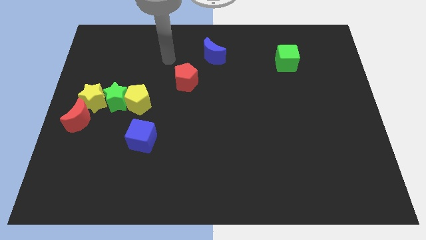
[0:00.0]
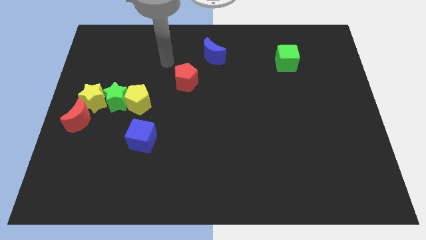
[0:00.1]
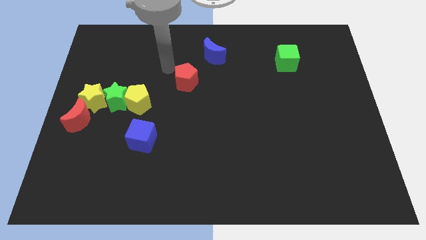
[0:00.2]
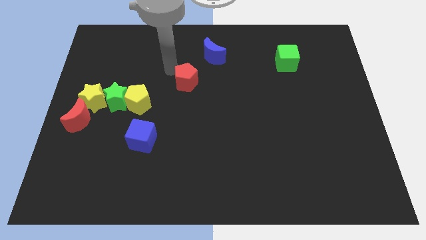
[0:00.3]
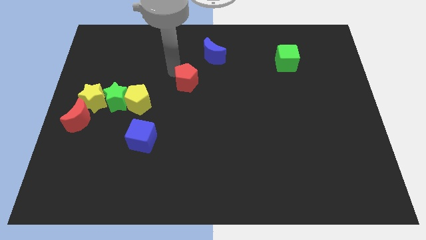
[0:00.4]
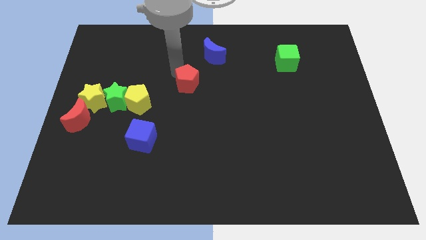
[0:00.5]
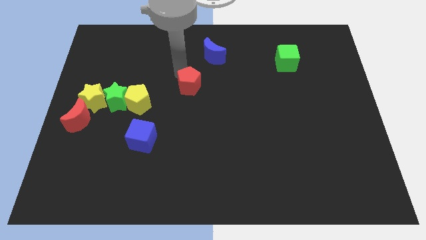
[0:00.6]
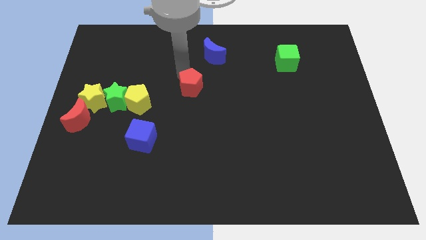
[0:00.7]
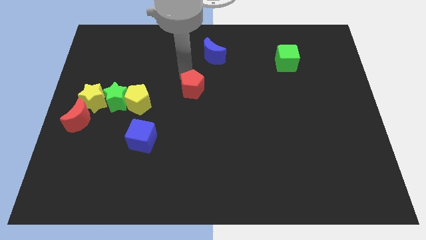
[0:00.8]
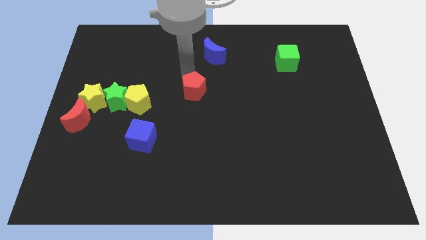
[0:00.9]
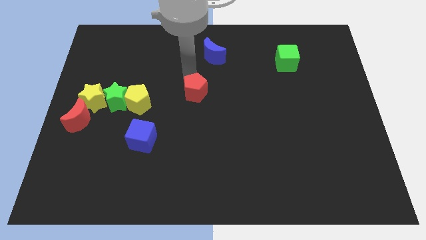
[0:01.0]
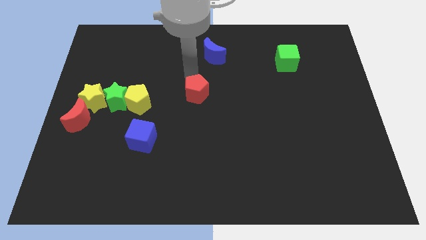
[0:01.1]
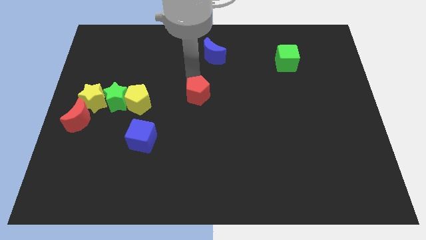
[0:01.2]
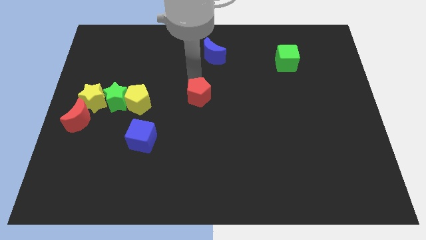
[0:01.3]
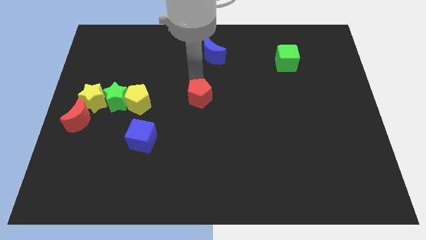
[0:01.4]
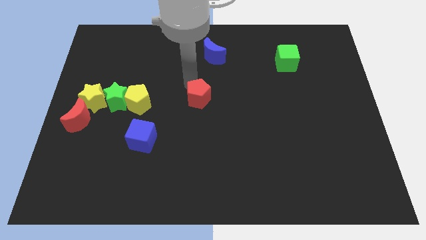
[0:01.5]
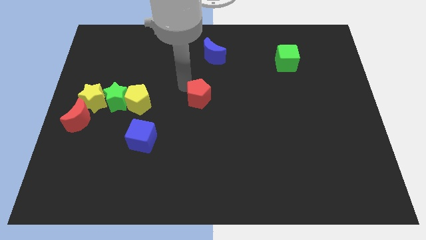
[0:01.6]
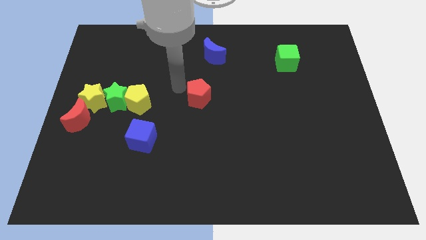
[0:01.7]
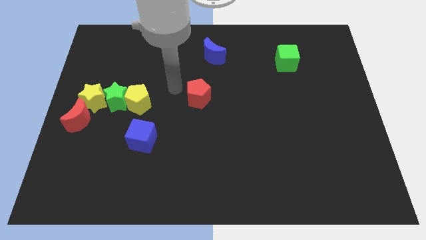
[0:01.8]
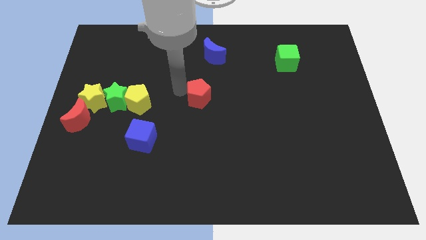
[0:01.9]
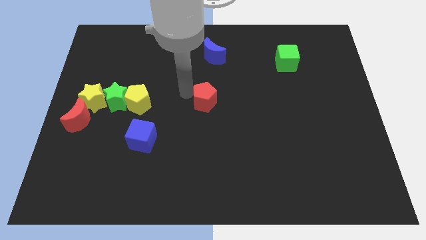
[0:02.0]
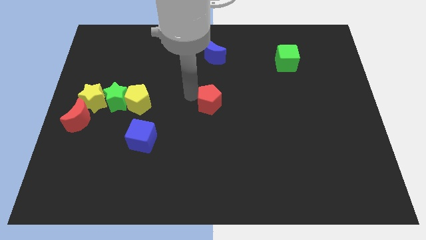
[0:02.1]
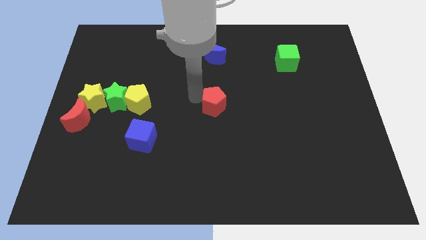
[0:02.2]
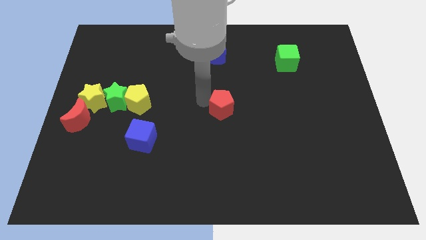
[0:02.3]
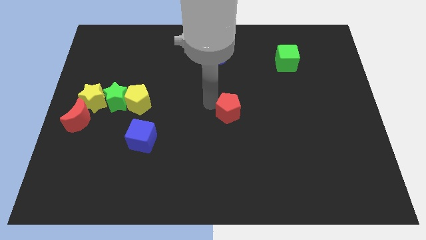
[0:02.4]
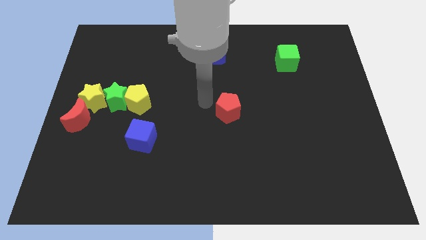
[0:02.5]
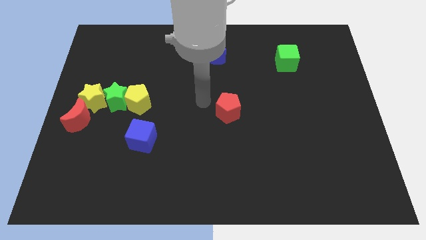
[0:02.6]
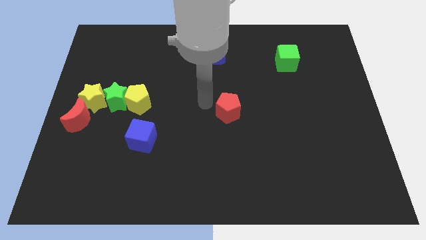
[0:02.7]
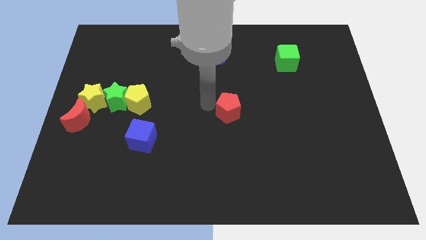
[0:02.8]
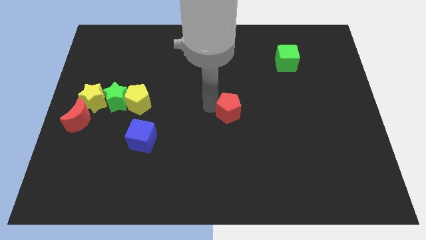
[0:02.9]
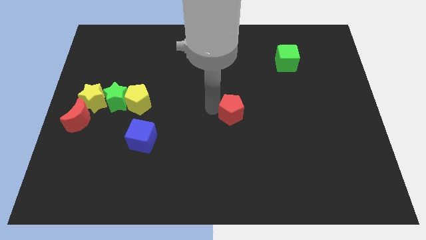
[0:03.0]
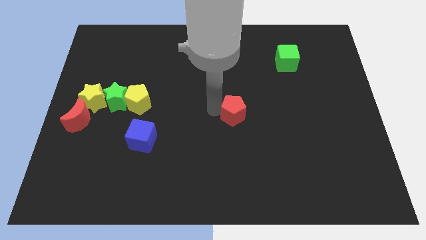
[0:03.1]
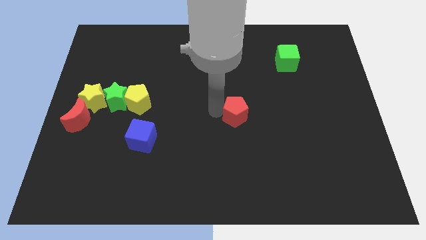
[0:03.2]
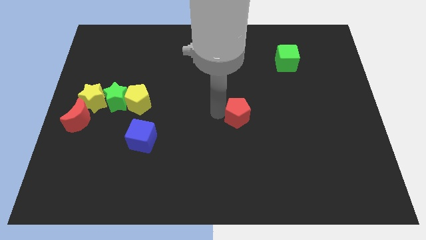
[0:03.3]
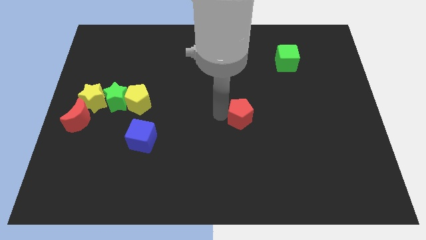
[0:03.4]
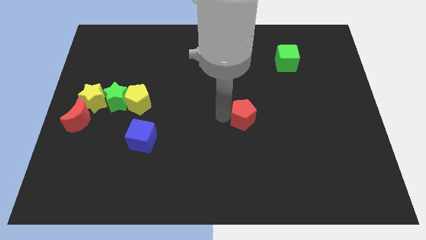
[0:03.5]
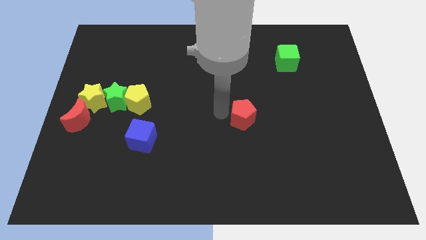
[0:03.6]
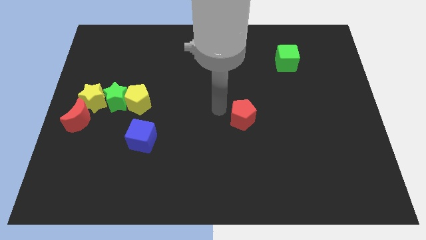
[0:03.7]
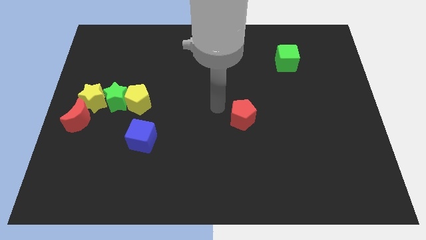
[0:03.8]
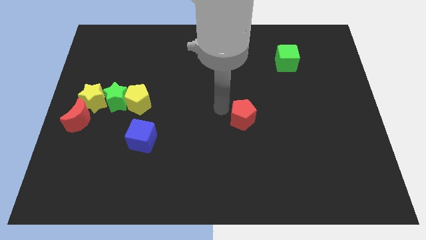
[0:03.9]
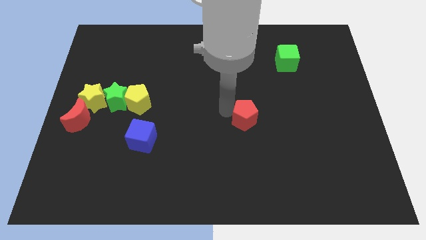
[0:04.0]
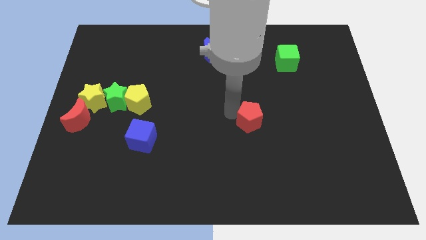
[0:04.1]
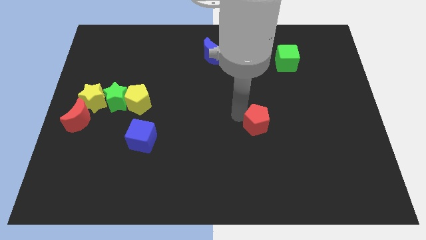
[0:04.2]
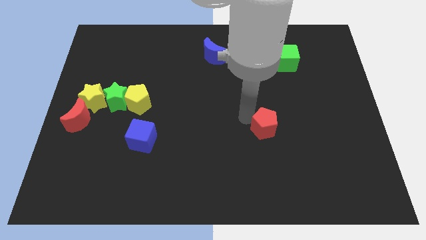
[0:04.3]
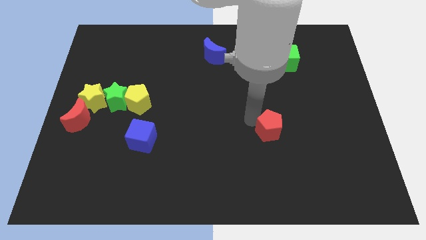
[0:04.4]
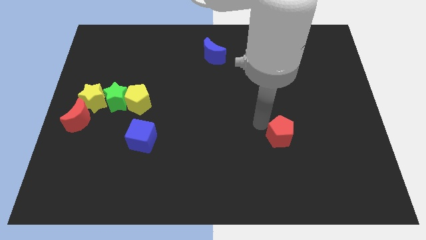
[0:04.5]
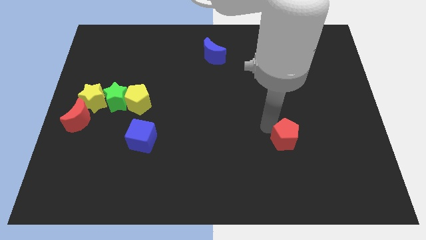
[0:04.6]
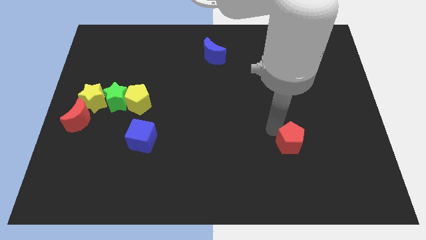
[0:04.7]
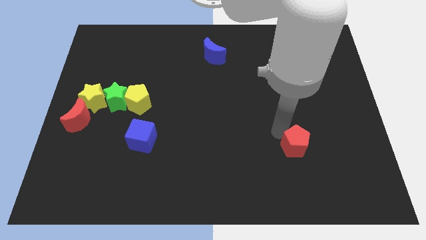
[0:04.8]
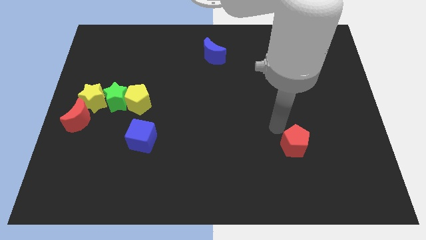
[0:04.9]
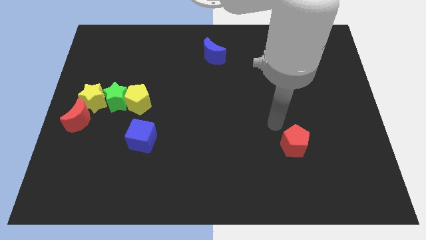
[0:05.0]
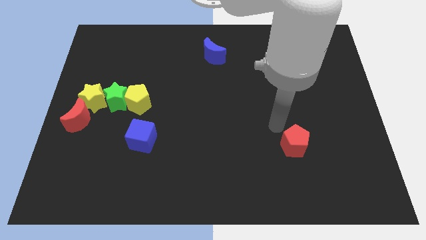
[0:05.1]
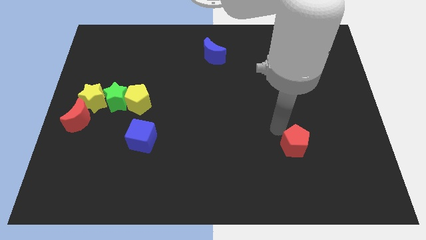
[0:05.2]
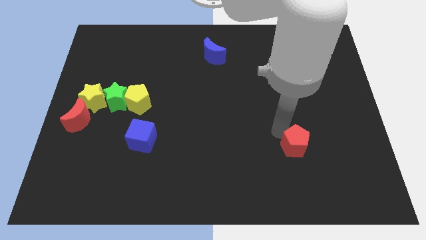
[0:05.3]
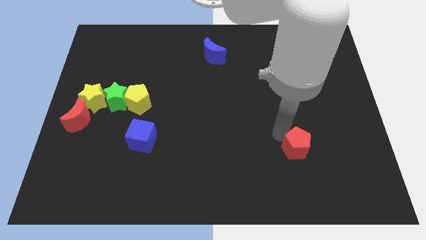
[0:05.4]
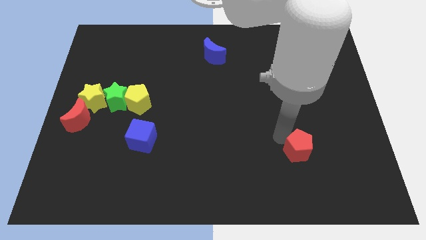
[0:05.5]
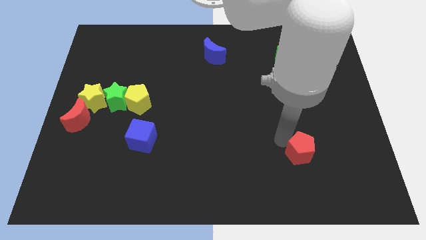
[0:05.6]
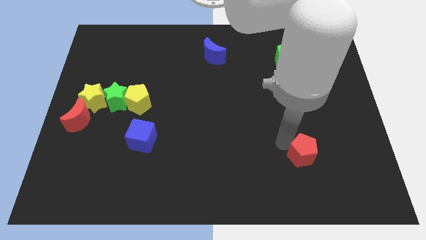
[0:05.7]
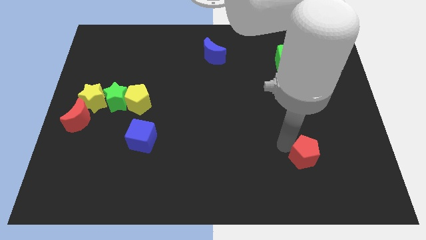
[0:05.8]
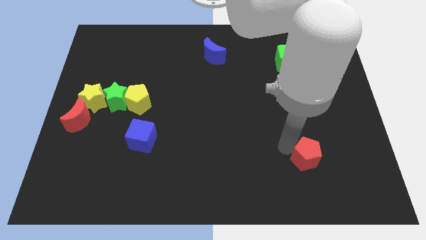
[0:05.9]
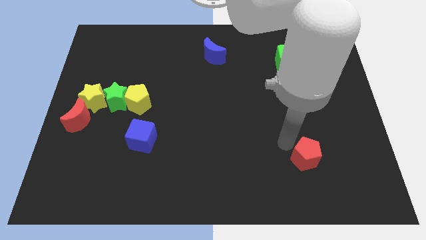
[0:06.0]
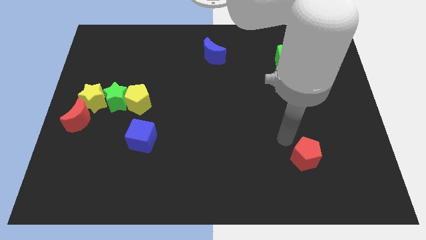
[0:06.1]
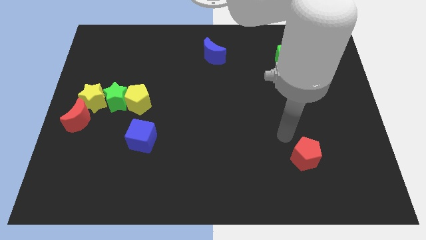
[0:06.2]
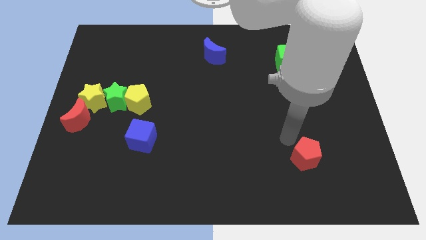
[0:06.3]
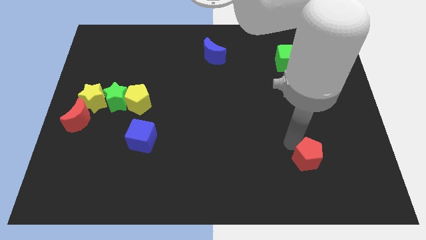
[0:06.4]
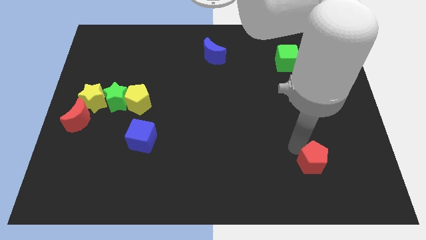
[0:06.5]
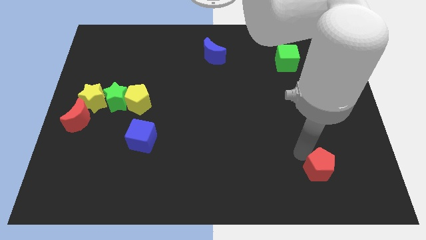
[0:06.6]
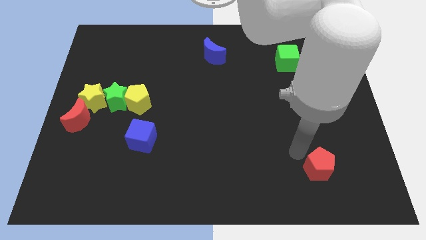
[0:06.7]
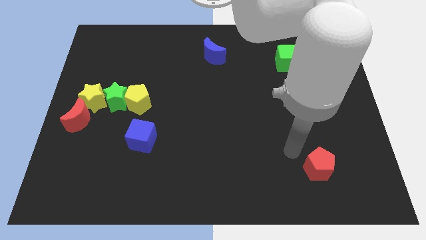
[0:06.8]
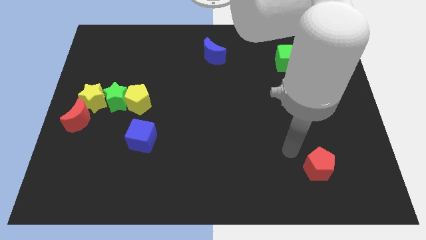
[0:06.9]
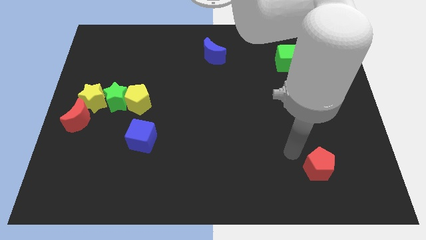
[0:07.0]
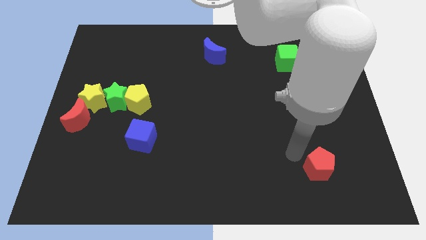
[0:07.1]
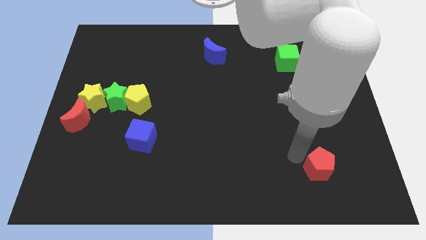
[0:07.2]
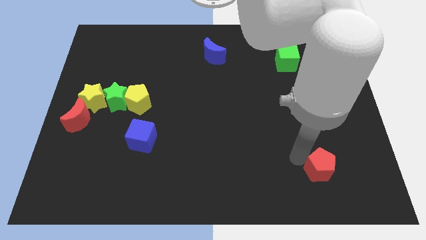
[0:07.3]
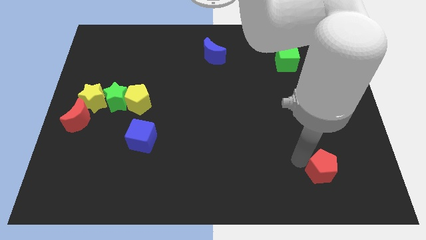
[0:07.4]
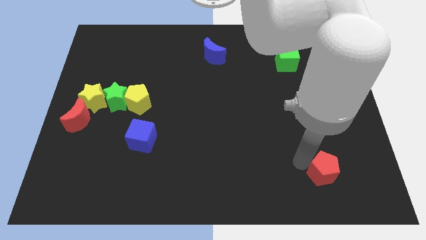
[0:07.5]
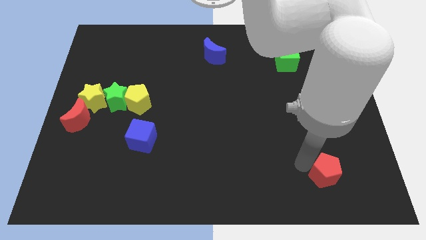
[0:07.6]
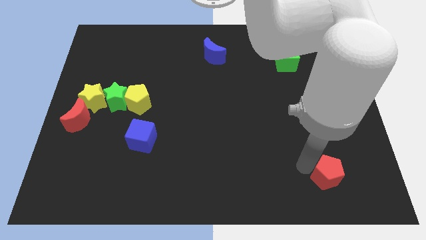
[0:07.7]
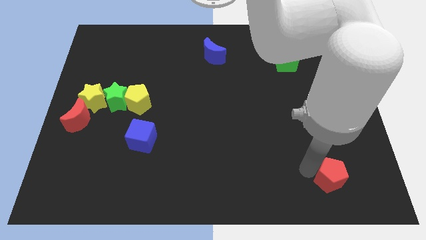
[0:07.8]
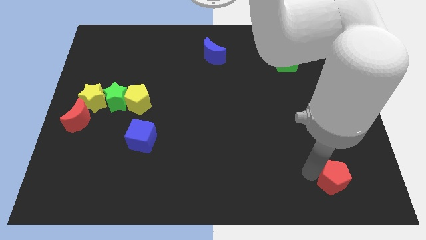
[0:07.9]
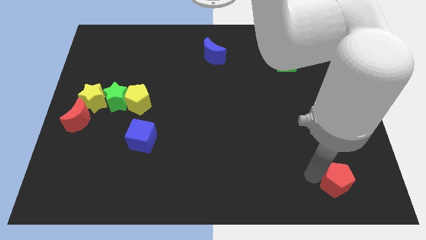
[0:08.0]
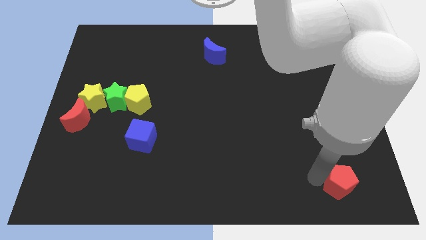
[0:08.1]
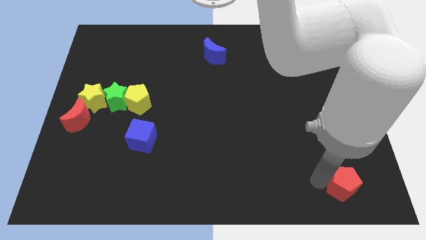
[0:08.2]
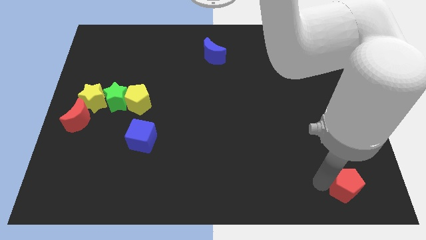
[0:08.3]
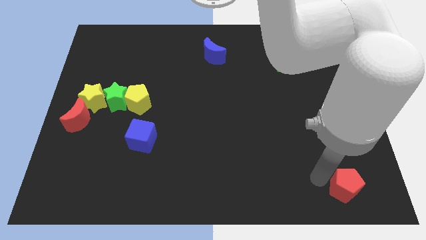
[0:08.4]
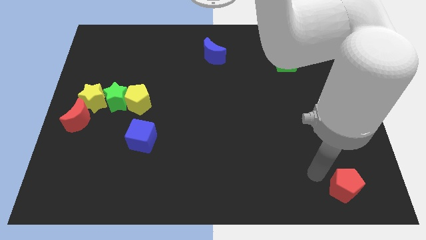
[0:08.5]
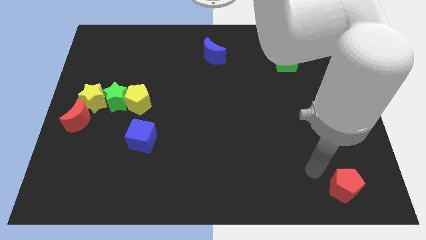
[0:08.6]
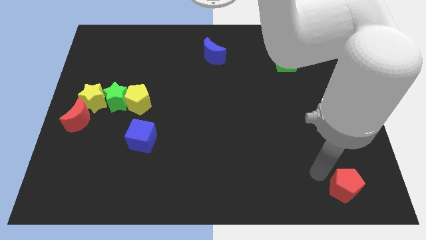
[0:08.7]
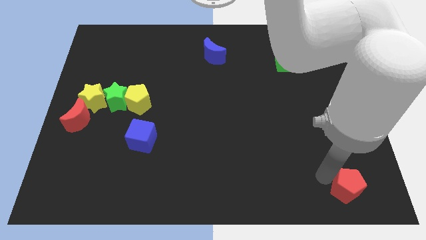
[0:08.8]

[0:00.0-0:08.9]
put the red pentagon to the bottom right corner
